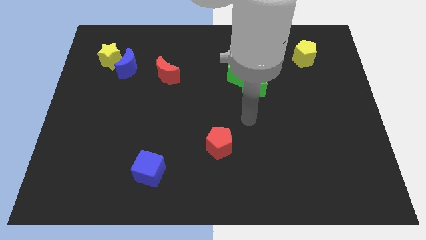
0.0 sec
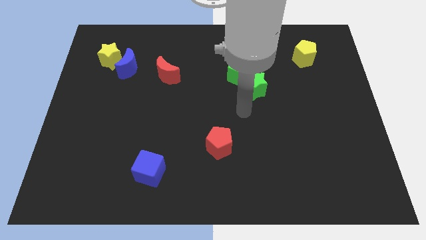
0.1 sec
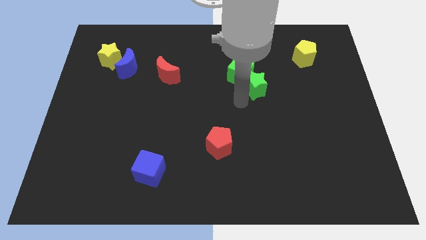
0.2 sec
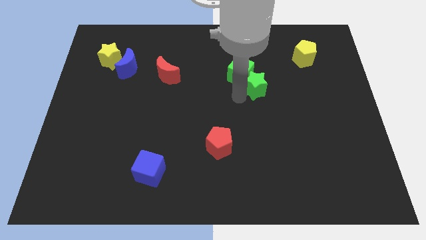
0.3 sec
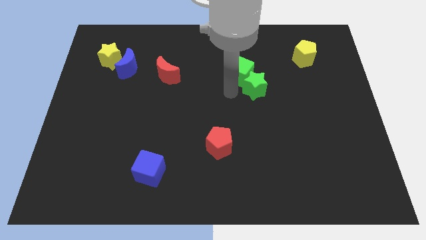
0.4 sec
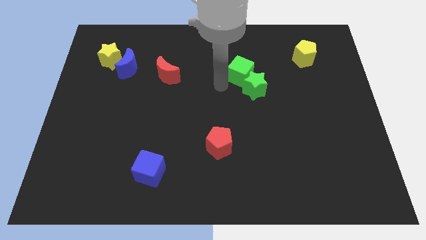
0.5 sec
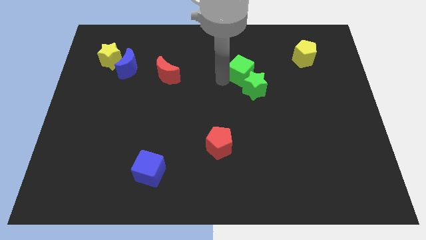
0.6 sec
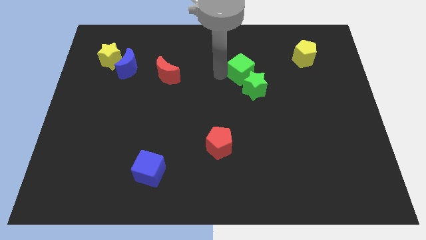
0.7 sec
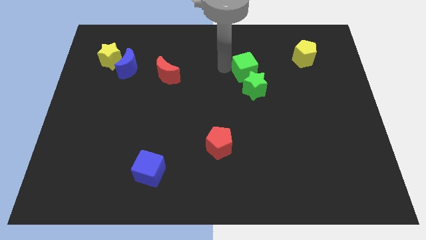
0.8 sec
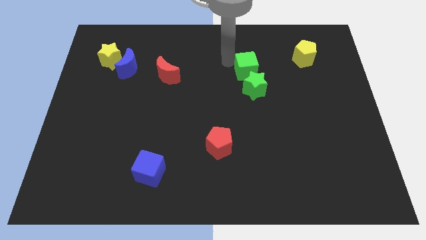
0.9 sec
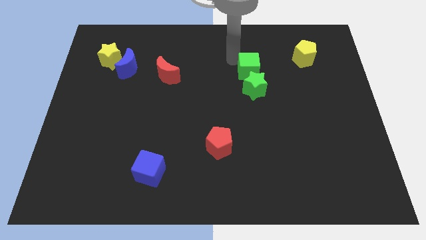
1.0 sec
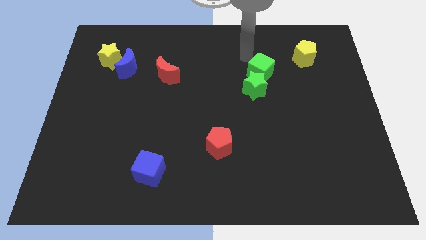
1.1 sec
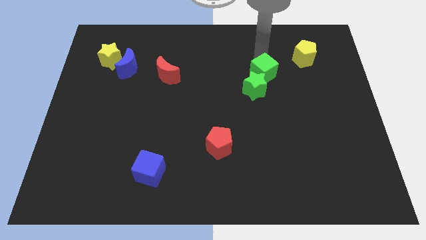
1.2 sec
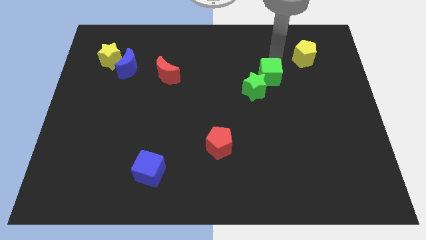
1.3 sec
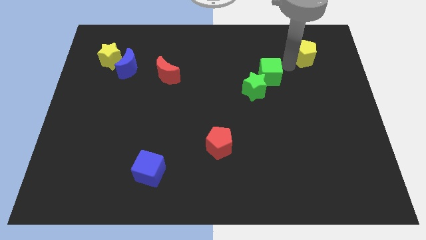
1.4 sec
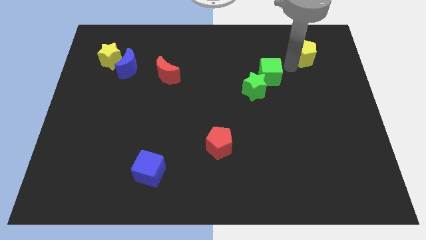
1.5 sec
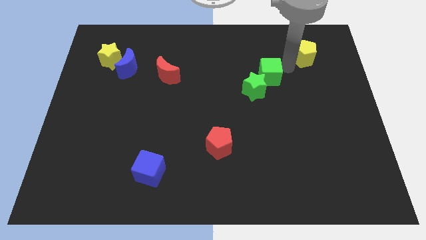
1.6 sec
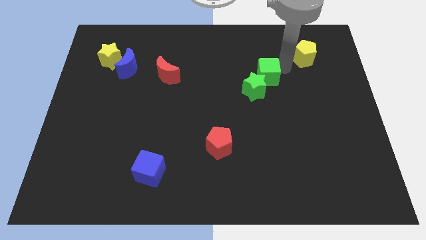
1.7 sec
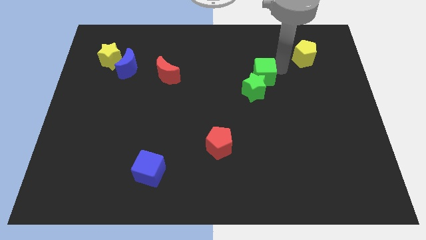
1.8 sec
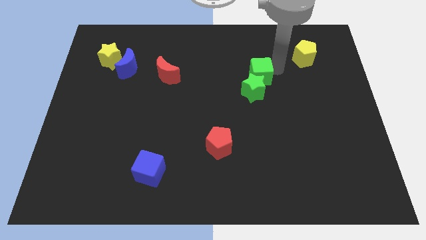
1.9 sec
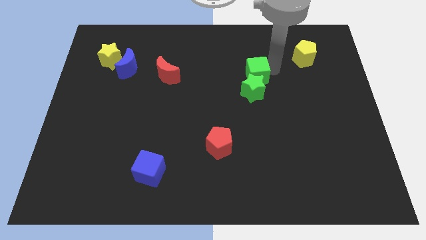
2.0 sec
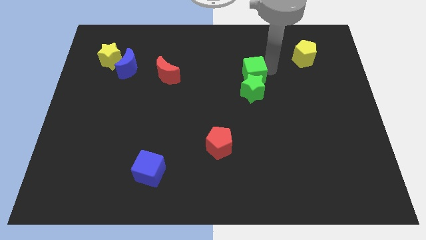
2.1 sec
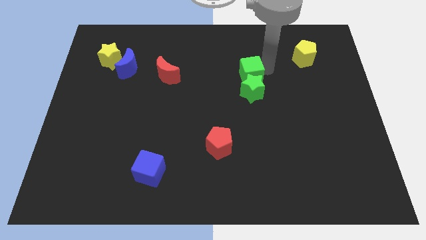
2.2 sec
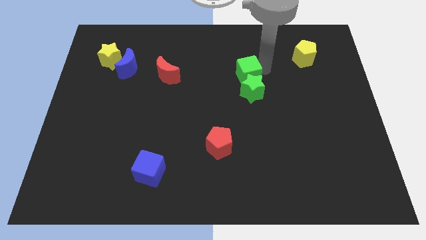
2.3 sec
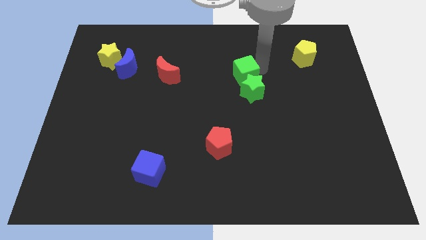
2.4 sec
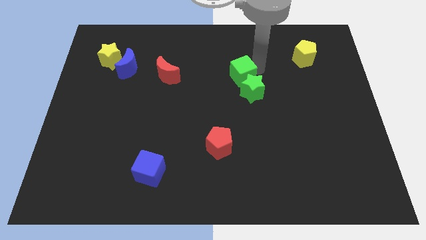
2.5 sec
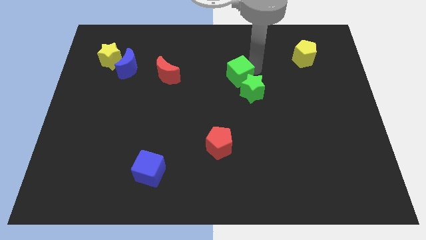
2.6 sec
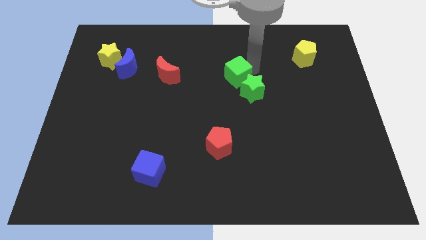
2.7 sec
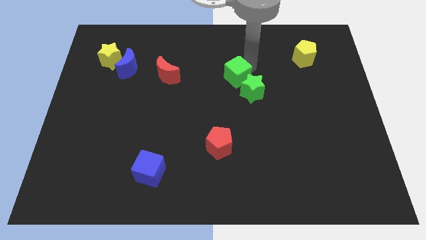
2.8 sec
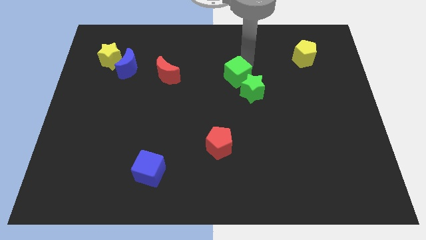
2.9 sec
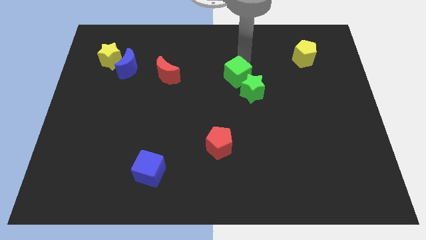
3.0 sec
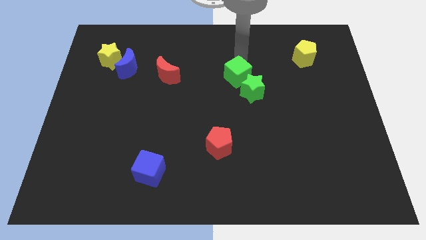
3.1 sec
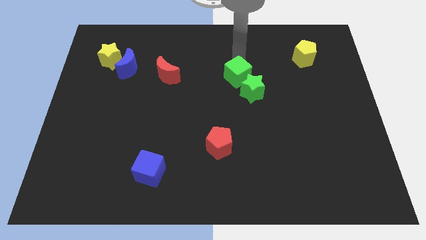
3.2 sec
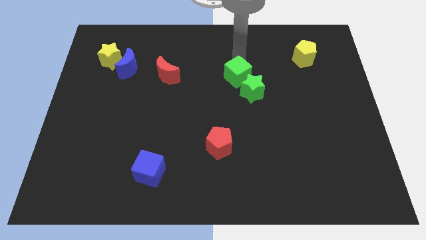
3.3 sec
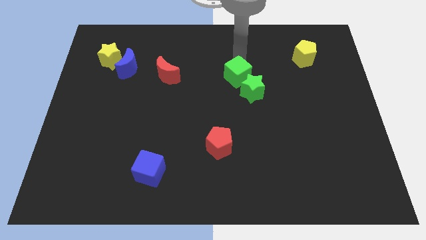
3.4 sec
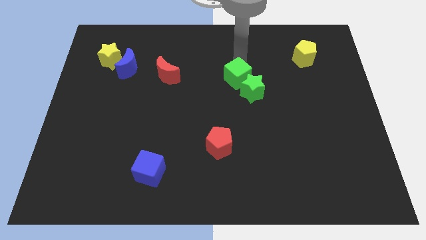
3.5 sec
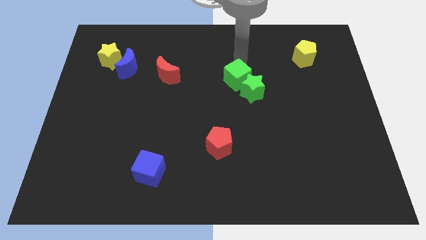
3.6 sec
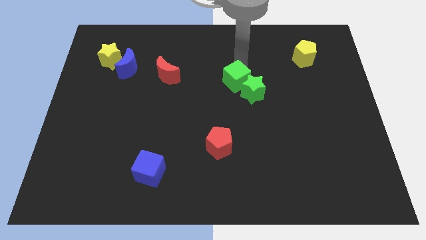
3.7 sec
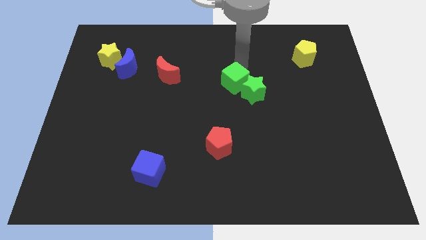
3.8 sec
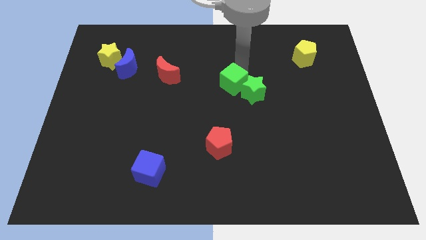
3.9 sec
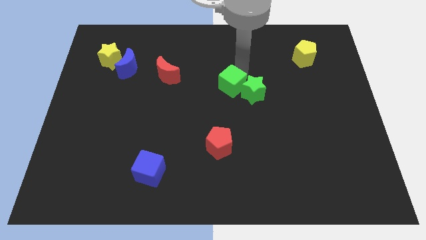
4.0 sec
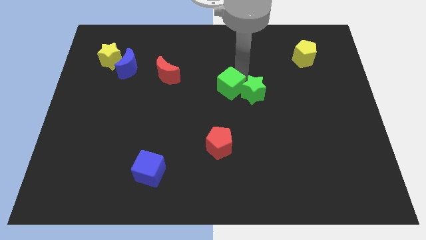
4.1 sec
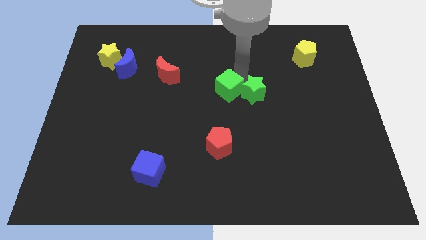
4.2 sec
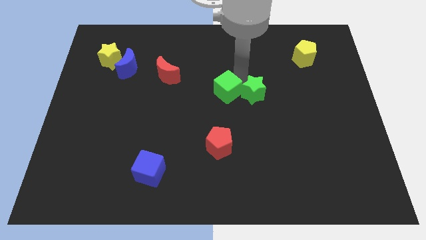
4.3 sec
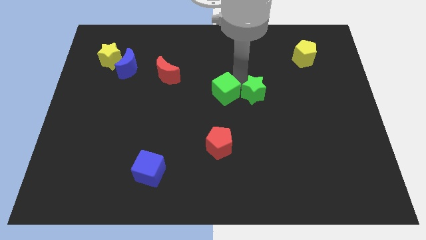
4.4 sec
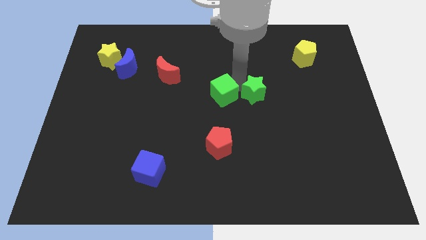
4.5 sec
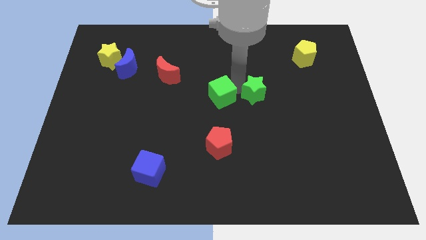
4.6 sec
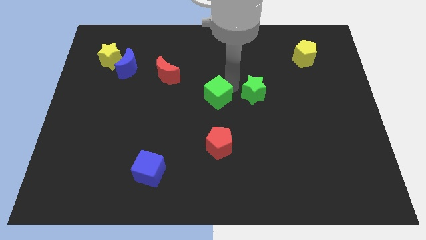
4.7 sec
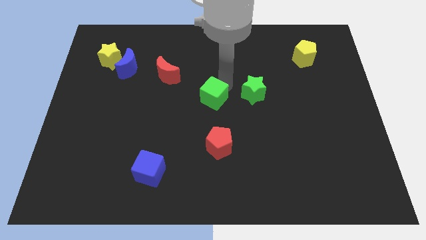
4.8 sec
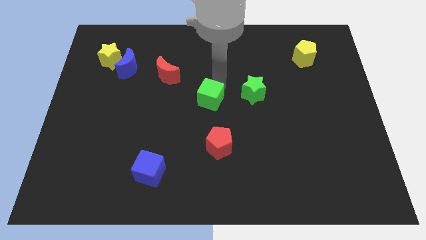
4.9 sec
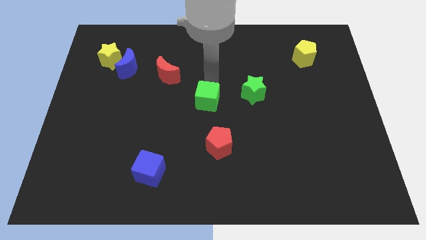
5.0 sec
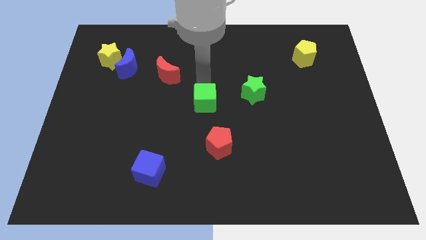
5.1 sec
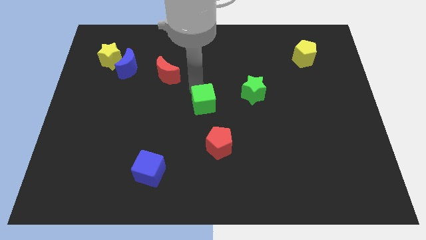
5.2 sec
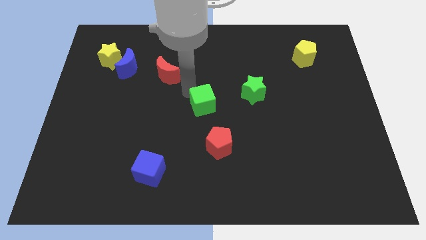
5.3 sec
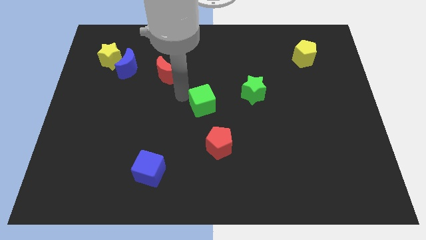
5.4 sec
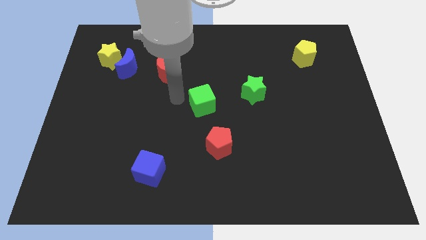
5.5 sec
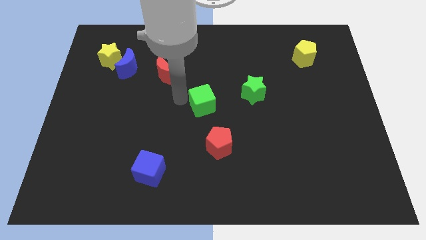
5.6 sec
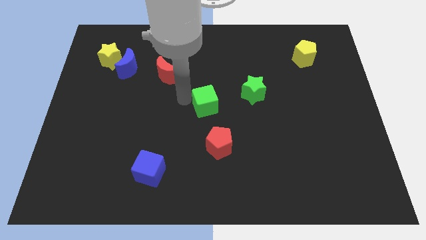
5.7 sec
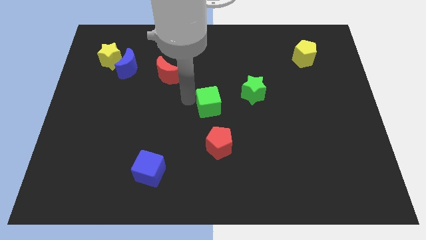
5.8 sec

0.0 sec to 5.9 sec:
slide the green cube somewhat down

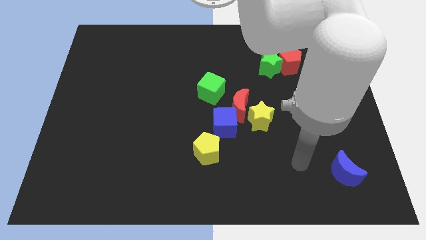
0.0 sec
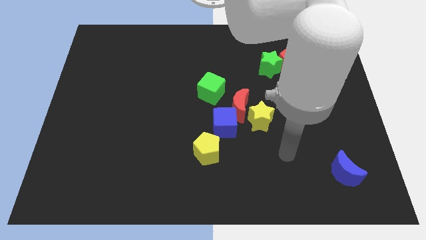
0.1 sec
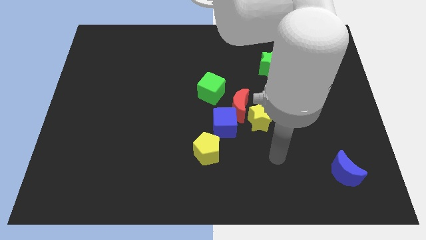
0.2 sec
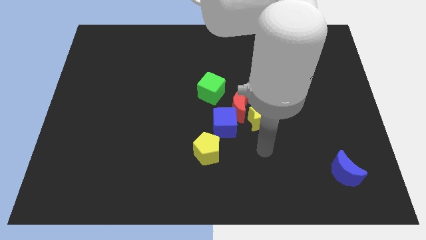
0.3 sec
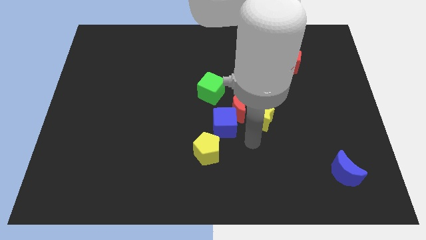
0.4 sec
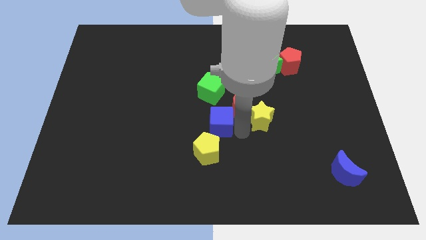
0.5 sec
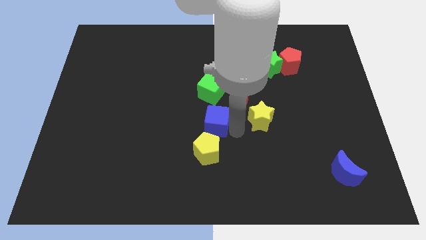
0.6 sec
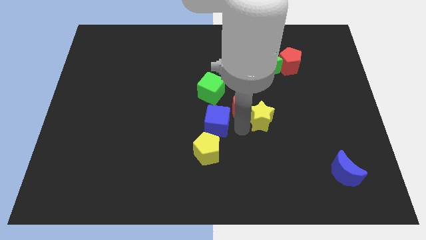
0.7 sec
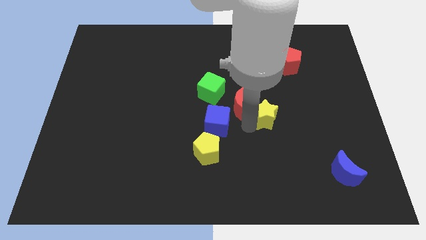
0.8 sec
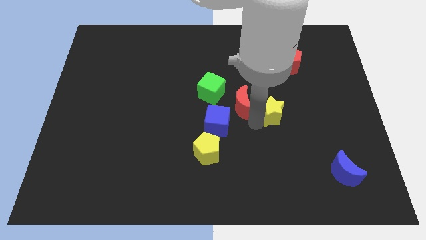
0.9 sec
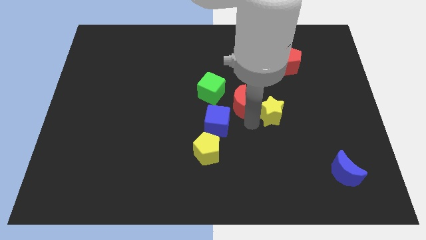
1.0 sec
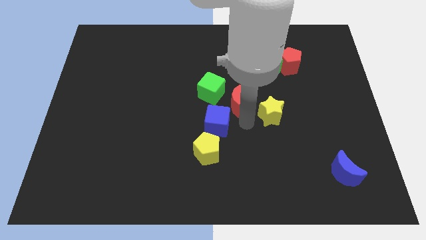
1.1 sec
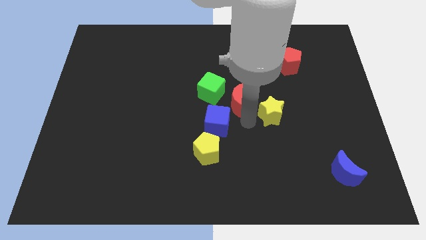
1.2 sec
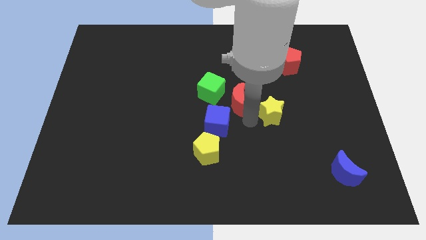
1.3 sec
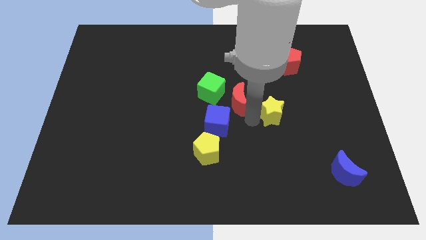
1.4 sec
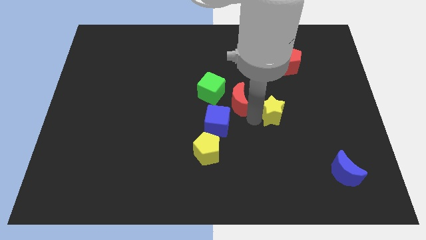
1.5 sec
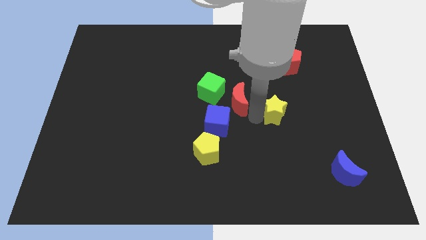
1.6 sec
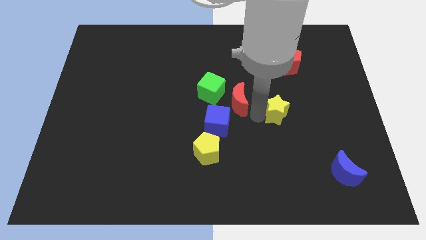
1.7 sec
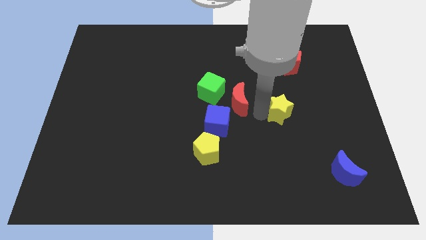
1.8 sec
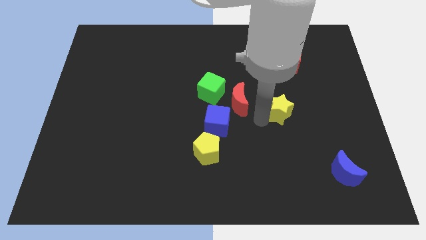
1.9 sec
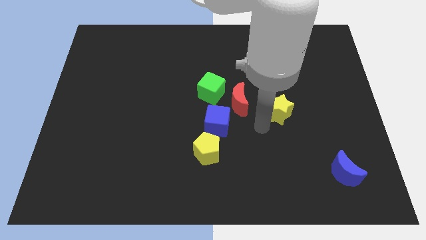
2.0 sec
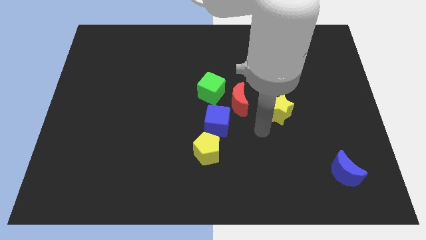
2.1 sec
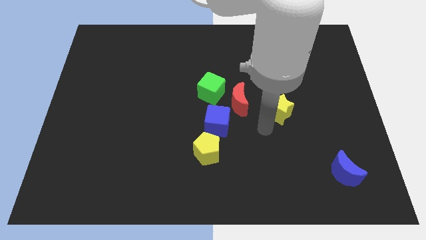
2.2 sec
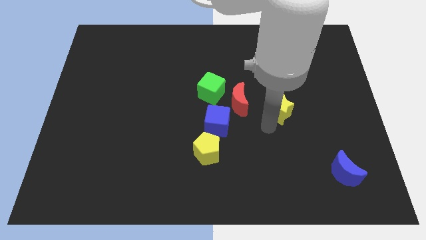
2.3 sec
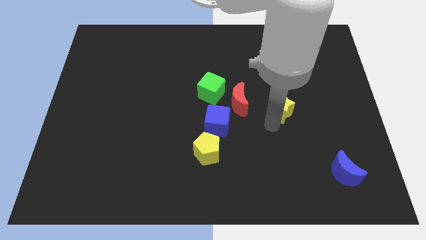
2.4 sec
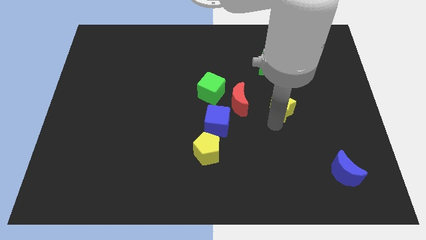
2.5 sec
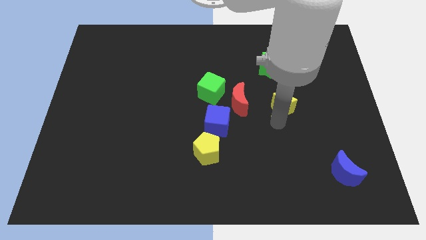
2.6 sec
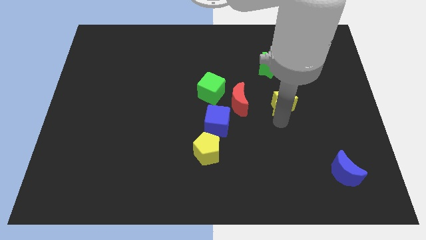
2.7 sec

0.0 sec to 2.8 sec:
move the yellow star upwards and right diagonally a bit
